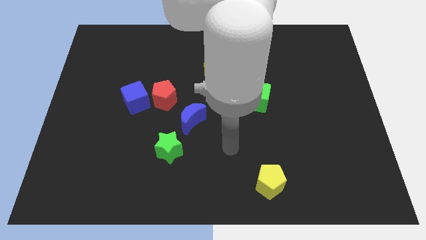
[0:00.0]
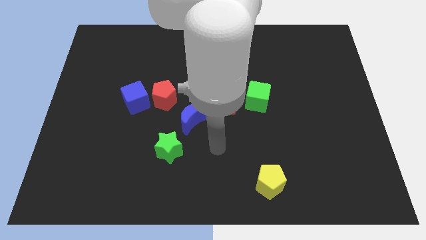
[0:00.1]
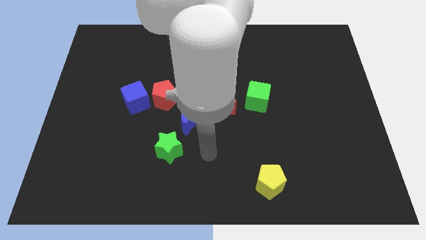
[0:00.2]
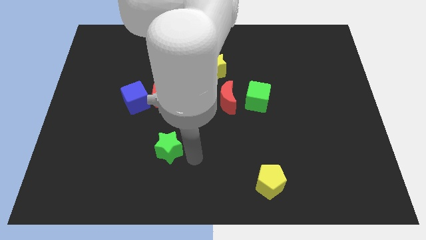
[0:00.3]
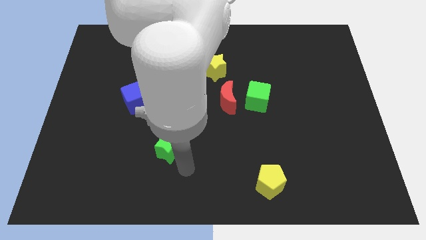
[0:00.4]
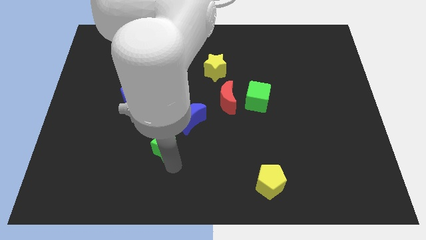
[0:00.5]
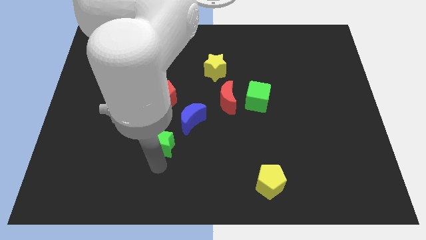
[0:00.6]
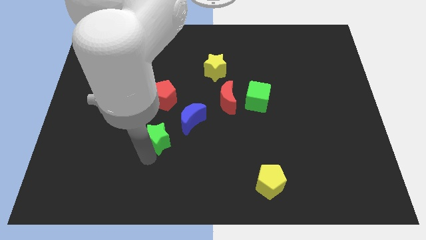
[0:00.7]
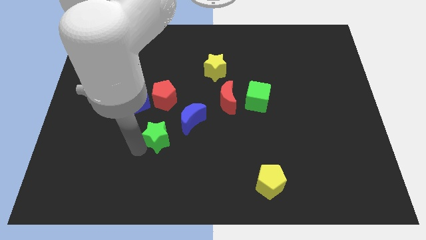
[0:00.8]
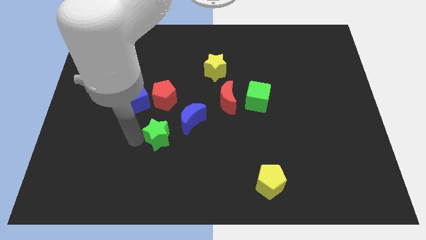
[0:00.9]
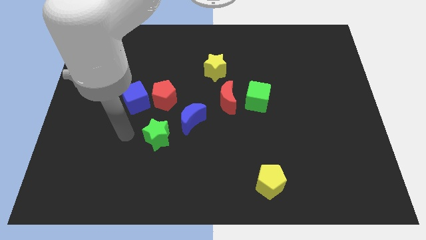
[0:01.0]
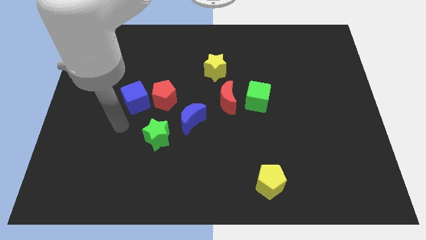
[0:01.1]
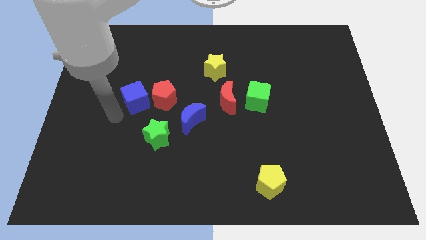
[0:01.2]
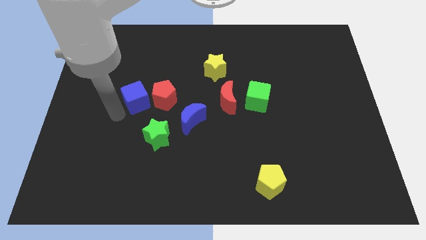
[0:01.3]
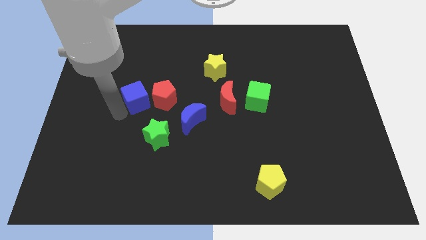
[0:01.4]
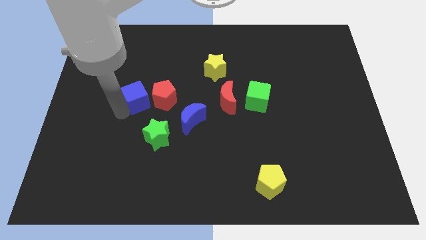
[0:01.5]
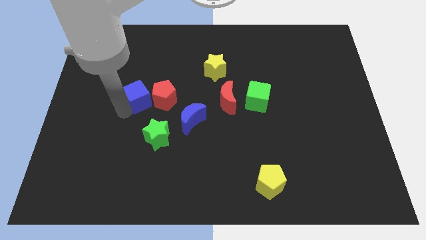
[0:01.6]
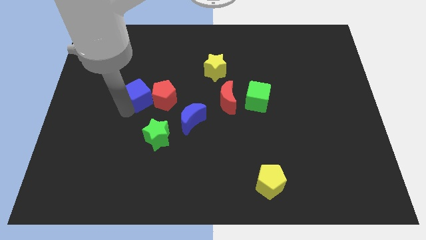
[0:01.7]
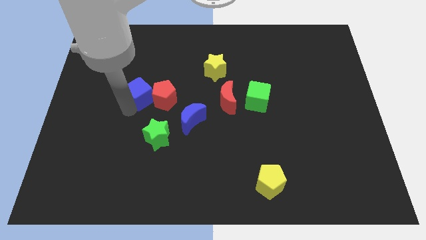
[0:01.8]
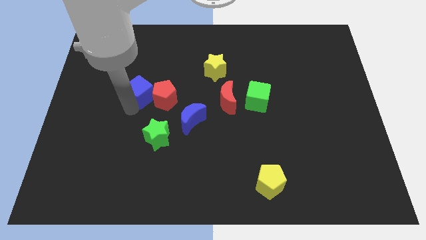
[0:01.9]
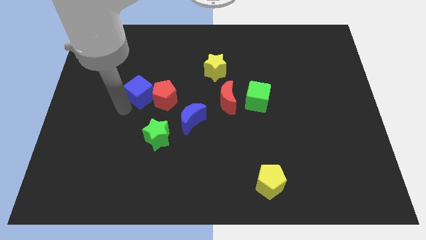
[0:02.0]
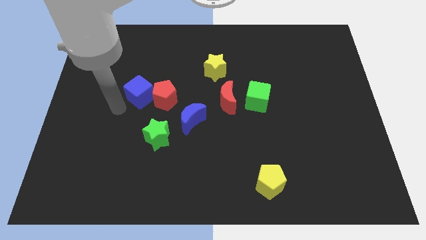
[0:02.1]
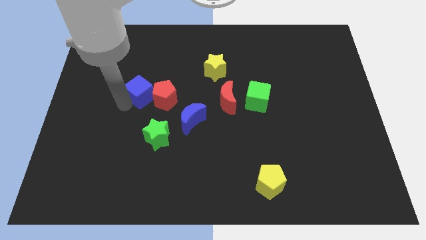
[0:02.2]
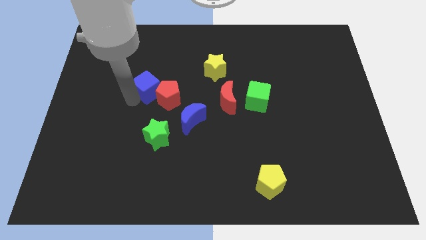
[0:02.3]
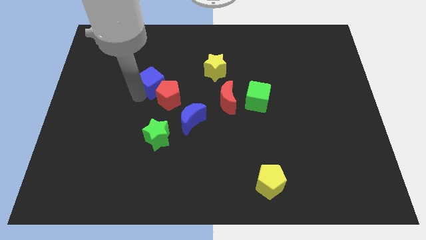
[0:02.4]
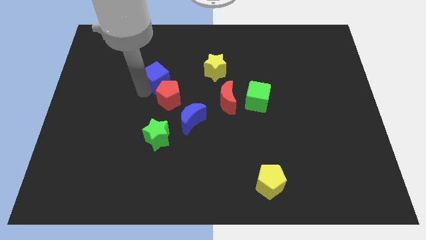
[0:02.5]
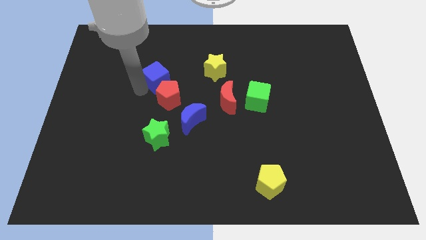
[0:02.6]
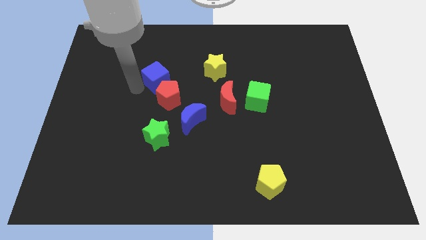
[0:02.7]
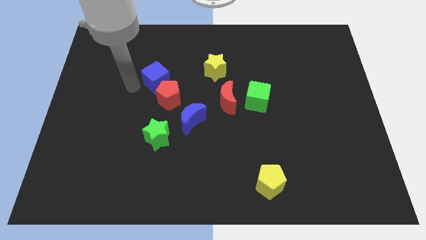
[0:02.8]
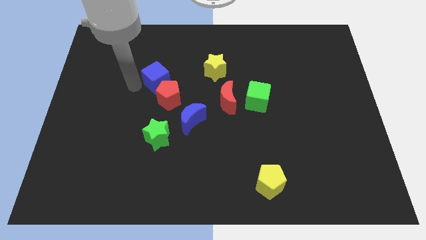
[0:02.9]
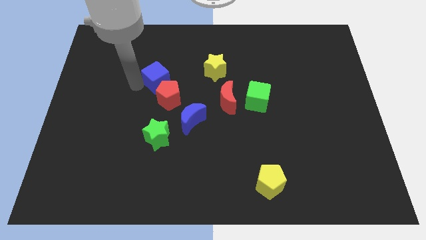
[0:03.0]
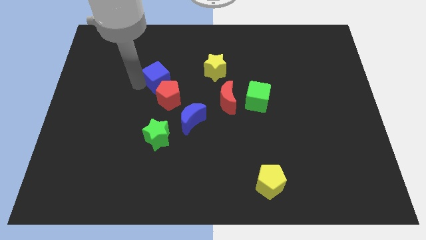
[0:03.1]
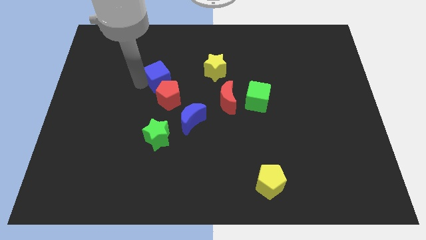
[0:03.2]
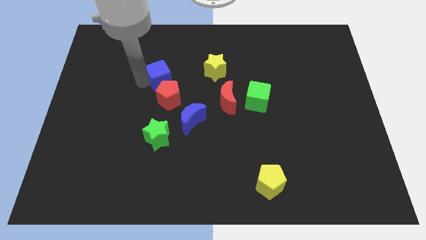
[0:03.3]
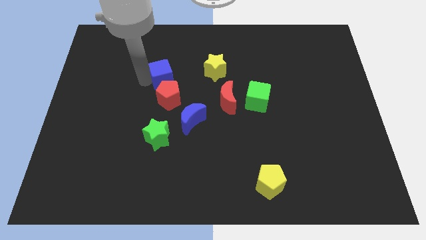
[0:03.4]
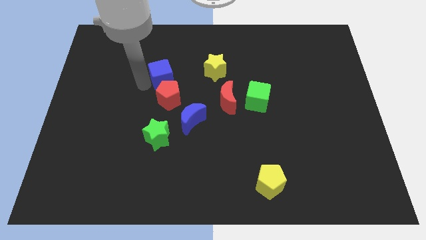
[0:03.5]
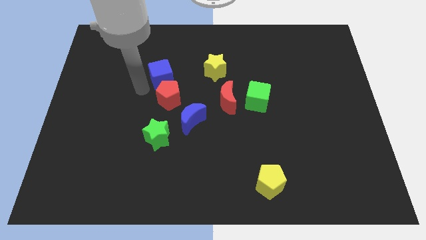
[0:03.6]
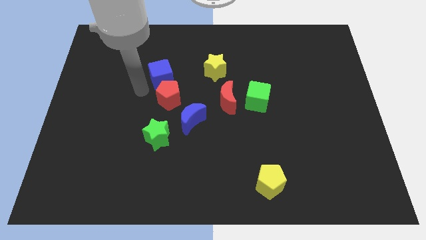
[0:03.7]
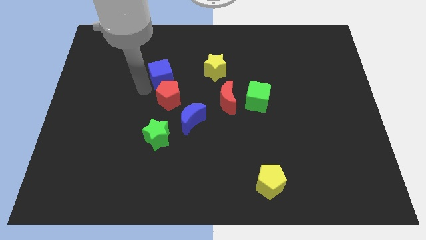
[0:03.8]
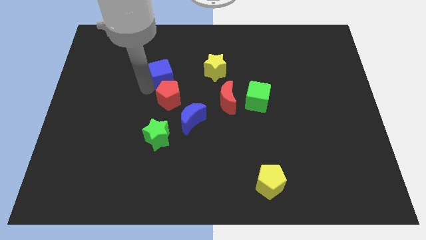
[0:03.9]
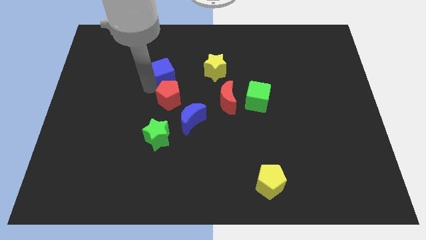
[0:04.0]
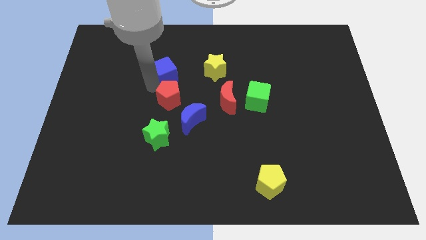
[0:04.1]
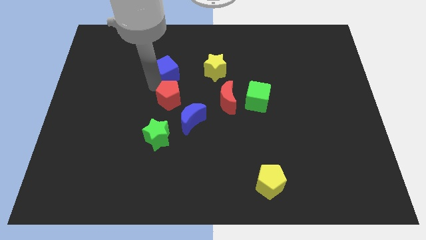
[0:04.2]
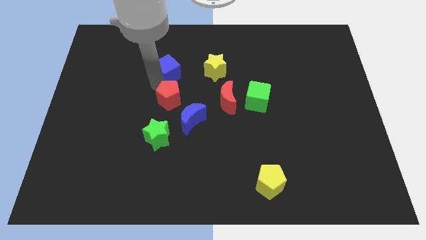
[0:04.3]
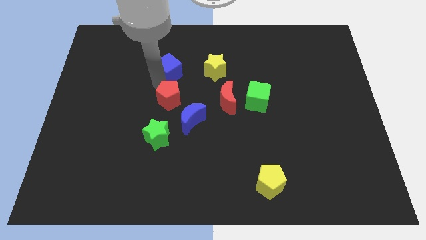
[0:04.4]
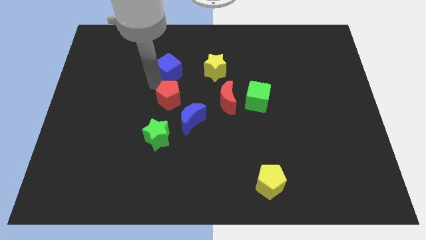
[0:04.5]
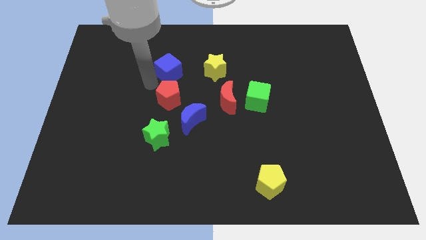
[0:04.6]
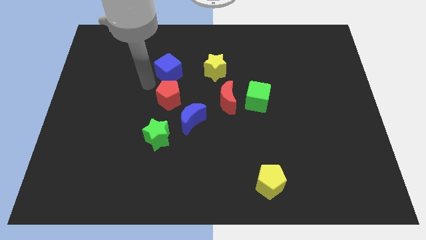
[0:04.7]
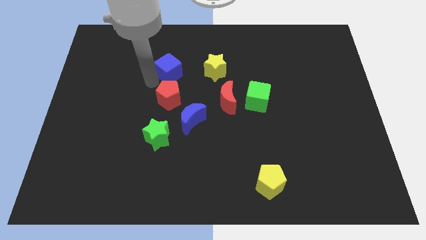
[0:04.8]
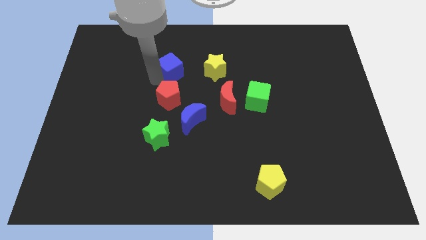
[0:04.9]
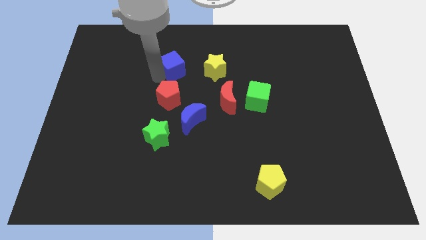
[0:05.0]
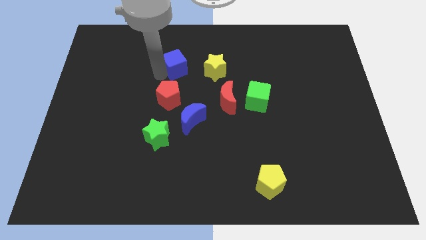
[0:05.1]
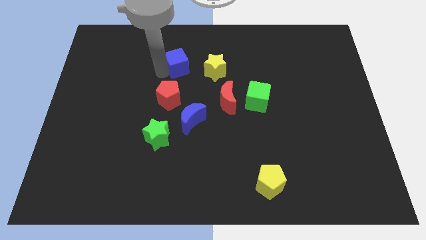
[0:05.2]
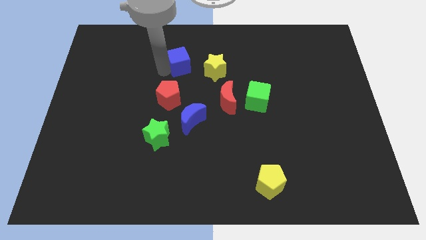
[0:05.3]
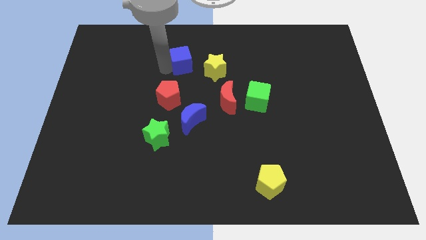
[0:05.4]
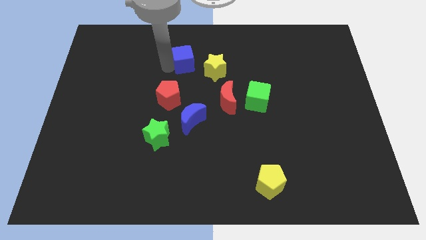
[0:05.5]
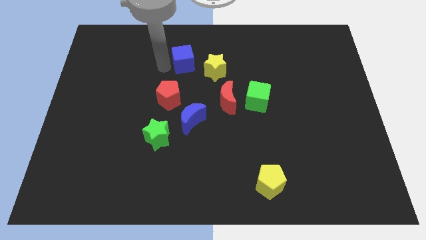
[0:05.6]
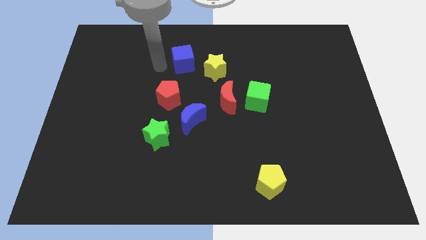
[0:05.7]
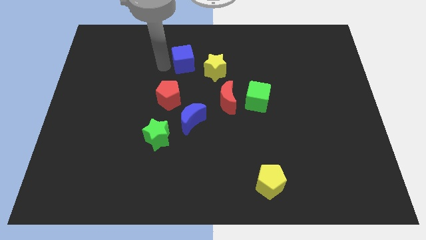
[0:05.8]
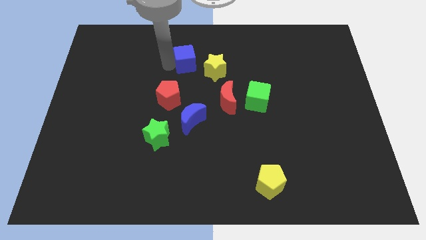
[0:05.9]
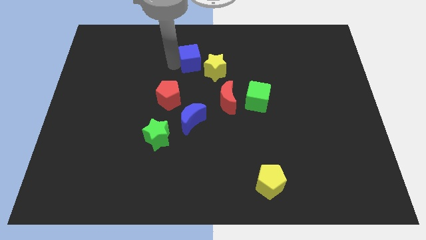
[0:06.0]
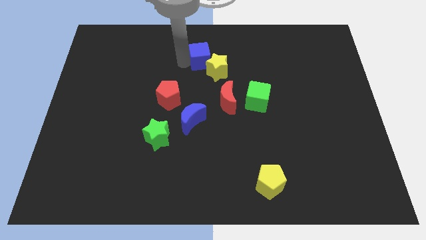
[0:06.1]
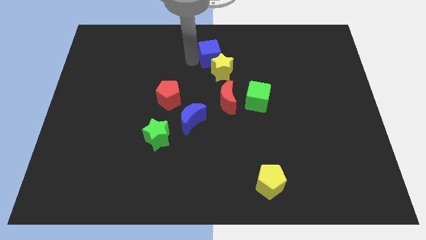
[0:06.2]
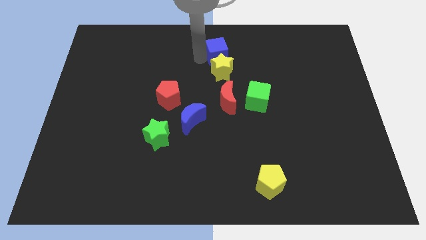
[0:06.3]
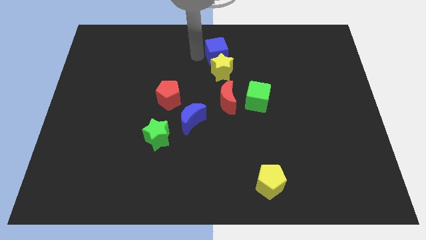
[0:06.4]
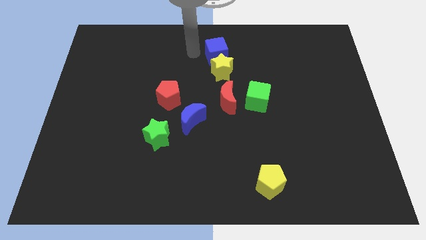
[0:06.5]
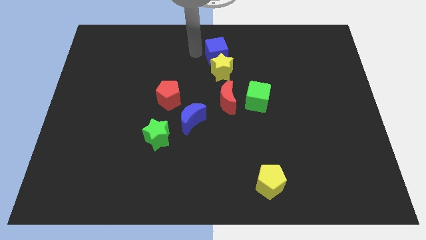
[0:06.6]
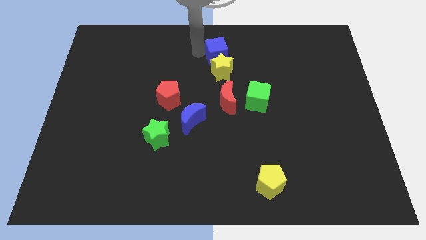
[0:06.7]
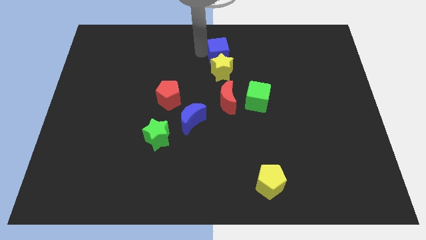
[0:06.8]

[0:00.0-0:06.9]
slide the blue cube diagonally up and to the right of the yellow star
